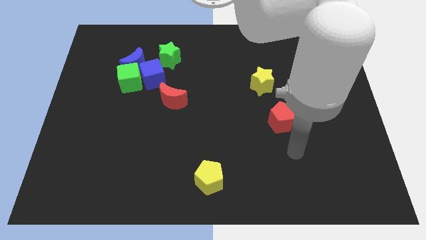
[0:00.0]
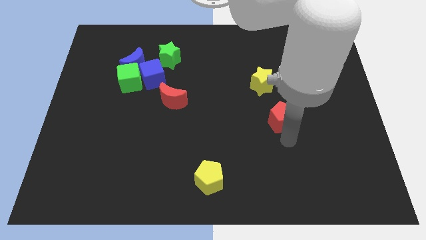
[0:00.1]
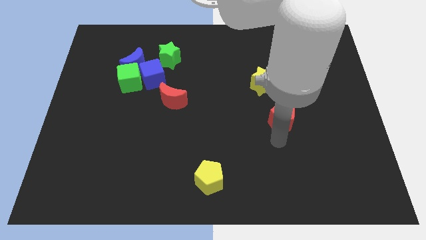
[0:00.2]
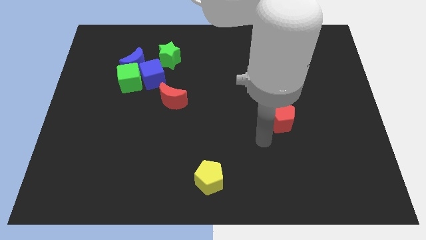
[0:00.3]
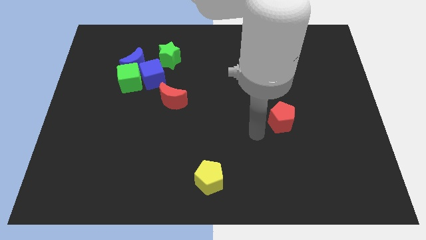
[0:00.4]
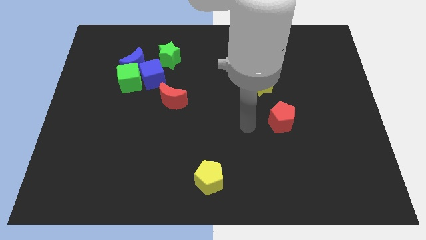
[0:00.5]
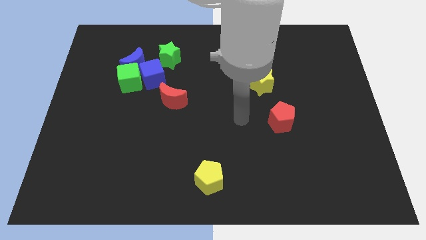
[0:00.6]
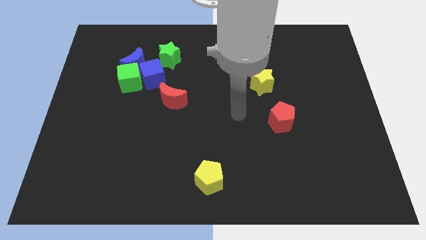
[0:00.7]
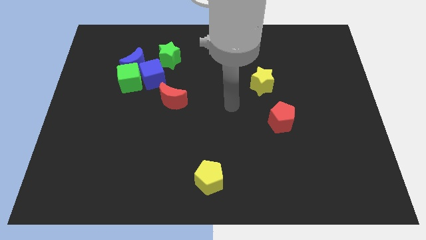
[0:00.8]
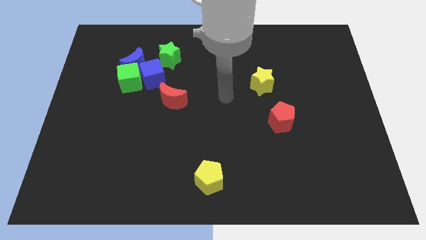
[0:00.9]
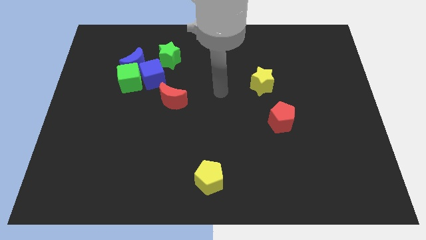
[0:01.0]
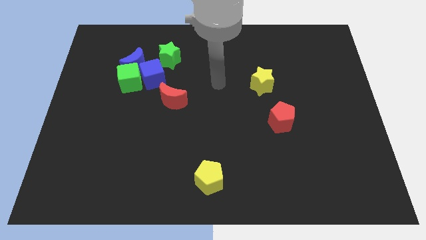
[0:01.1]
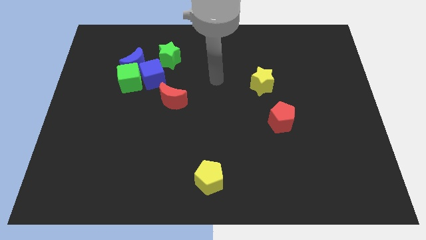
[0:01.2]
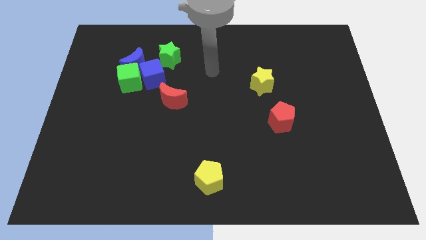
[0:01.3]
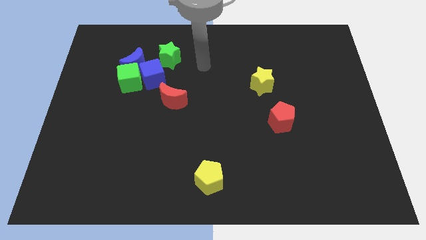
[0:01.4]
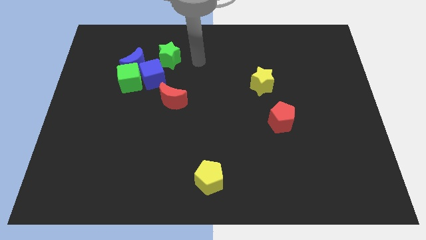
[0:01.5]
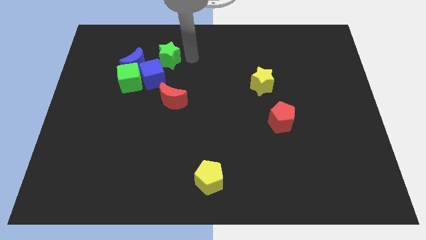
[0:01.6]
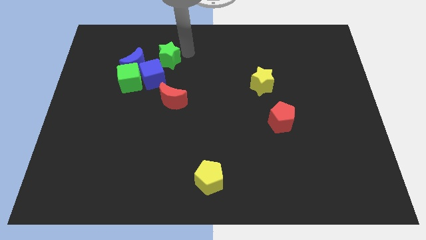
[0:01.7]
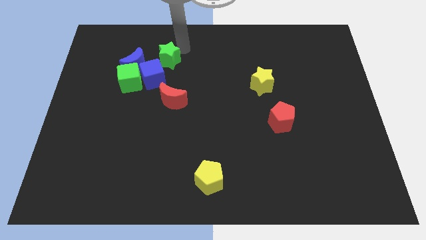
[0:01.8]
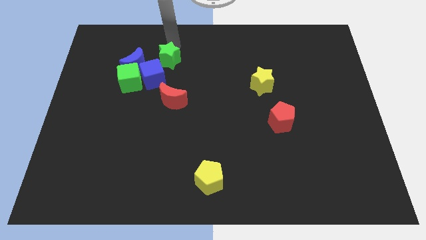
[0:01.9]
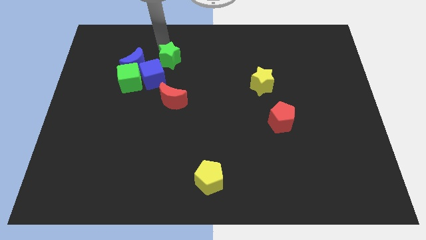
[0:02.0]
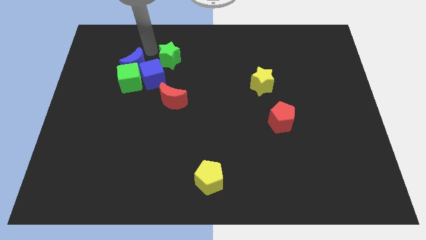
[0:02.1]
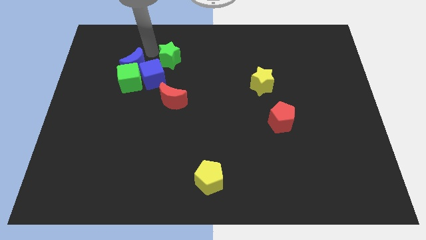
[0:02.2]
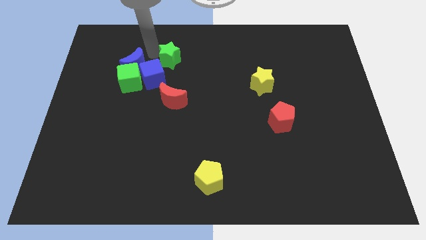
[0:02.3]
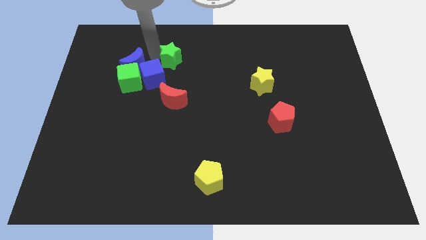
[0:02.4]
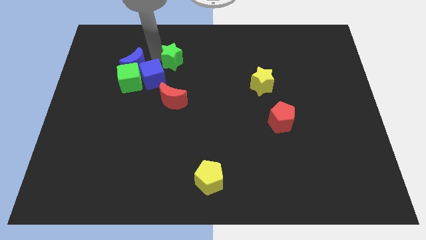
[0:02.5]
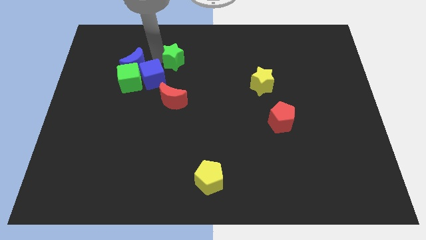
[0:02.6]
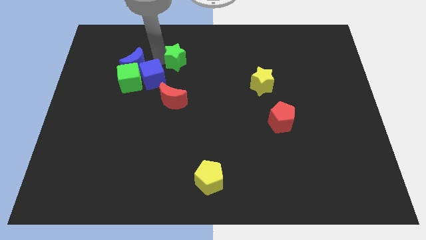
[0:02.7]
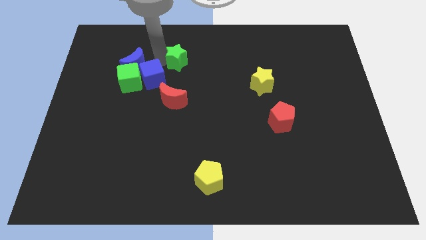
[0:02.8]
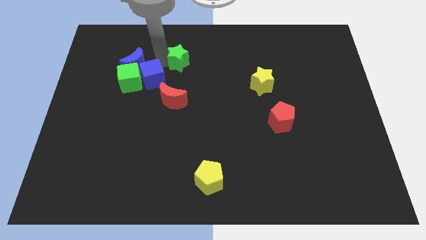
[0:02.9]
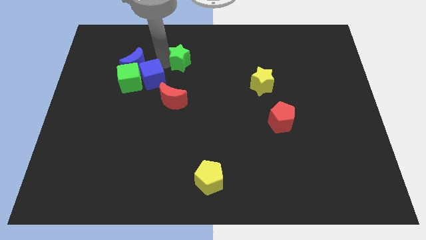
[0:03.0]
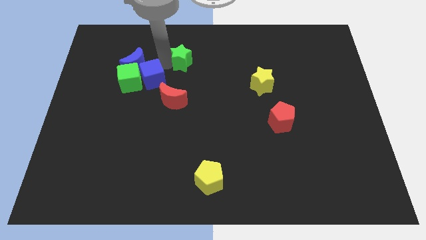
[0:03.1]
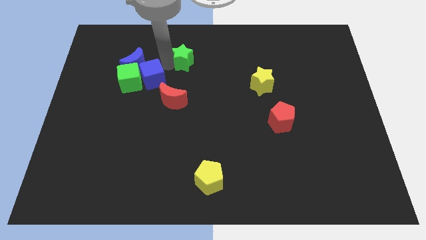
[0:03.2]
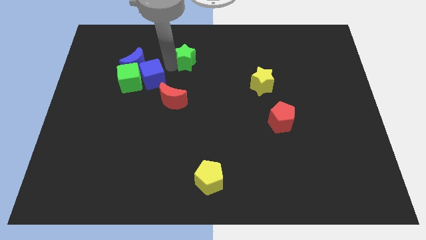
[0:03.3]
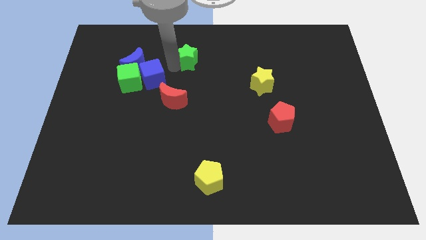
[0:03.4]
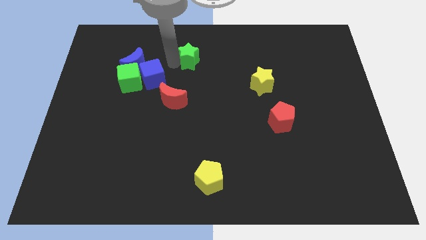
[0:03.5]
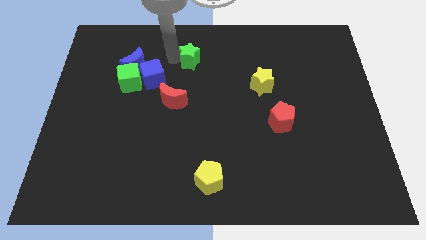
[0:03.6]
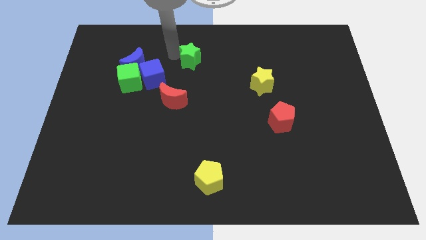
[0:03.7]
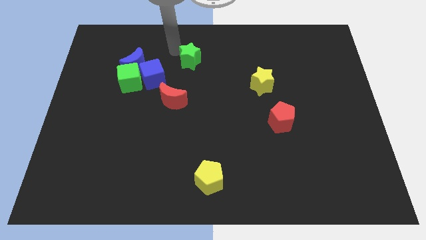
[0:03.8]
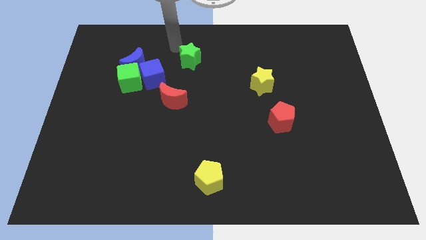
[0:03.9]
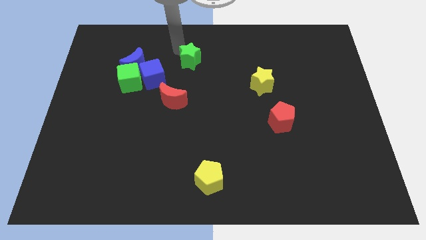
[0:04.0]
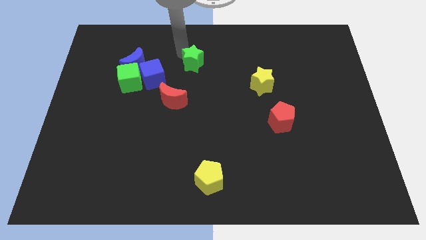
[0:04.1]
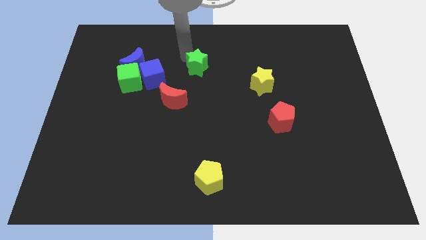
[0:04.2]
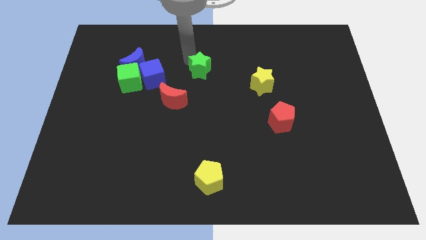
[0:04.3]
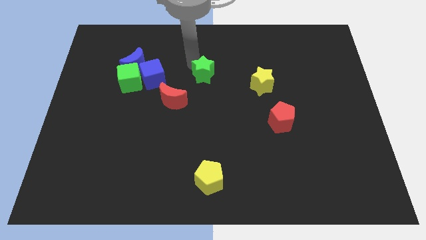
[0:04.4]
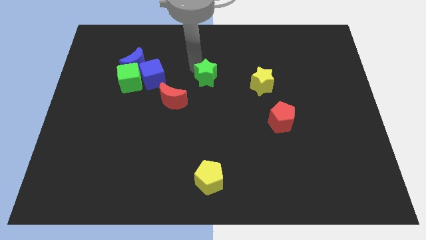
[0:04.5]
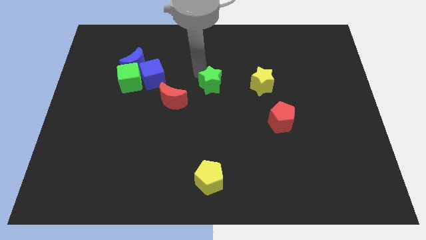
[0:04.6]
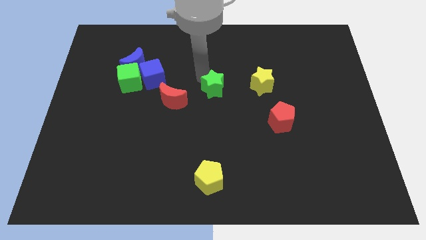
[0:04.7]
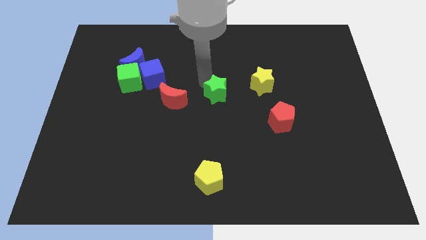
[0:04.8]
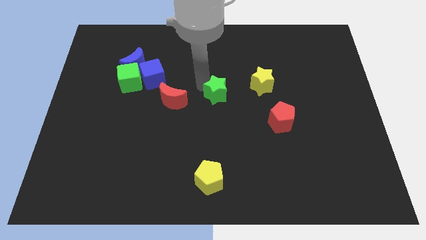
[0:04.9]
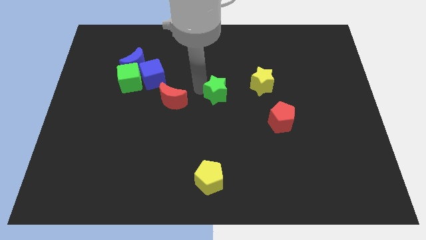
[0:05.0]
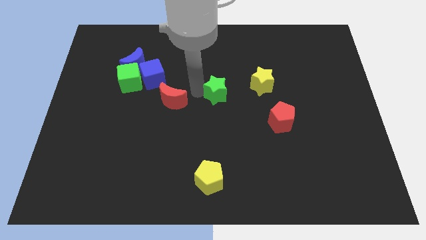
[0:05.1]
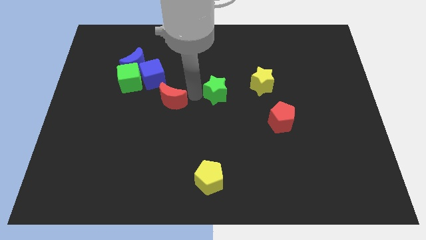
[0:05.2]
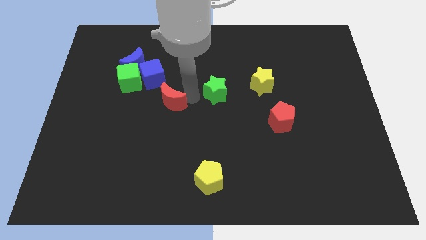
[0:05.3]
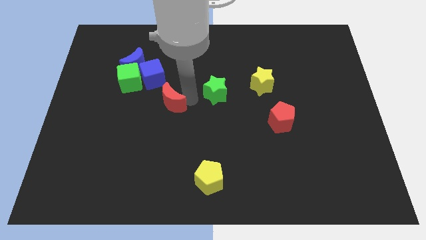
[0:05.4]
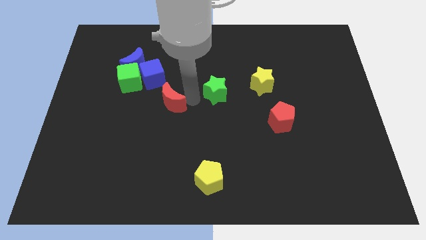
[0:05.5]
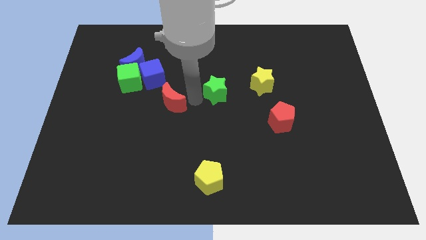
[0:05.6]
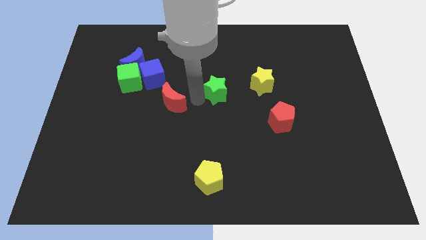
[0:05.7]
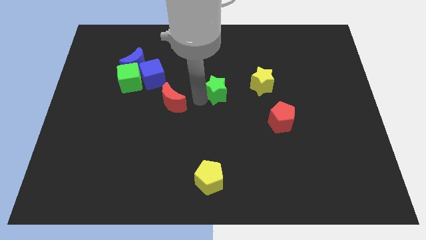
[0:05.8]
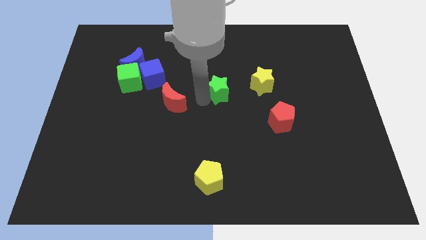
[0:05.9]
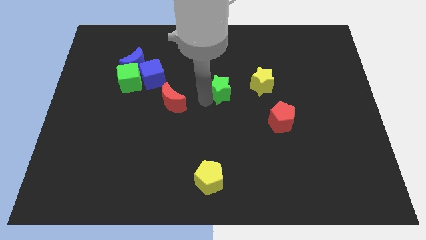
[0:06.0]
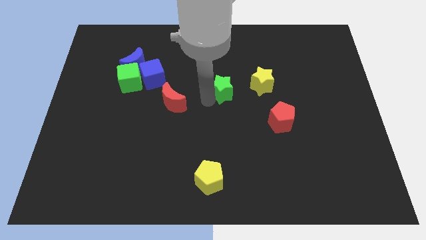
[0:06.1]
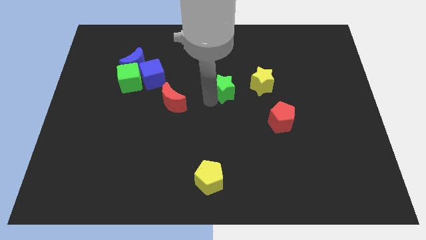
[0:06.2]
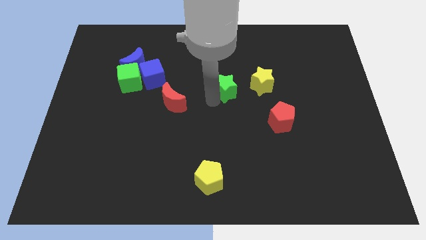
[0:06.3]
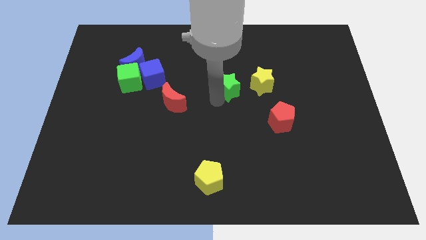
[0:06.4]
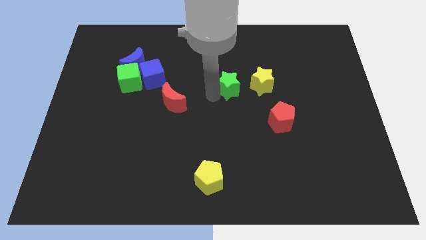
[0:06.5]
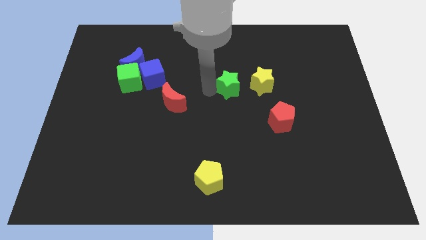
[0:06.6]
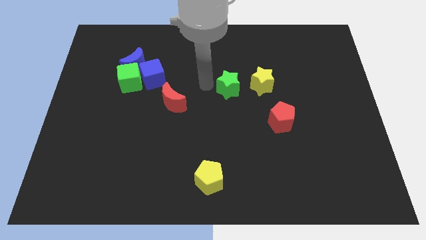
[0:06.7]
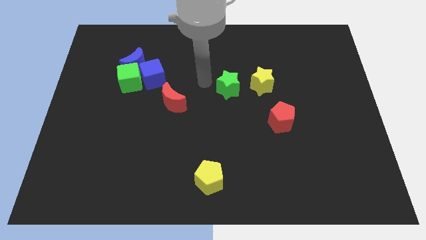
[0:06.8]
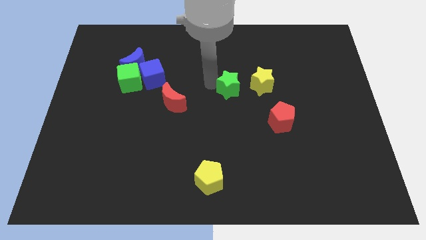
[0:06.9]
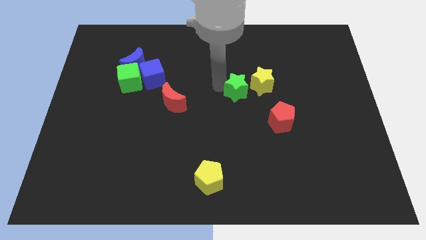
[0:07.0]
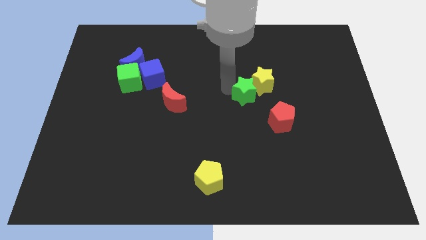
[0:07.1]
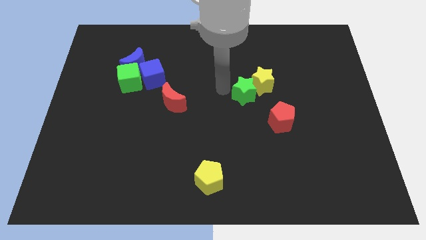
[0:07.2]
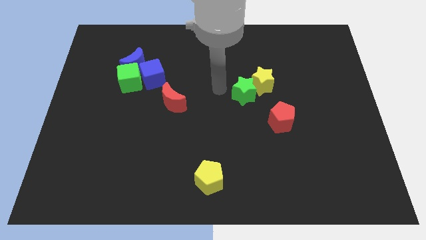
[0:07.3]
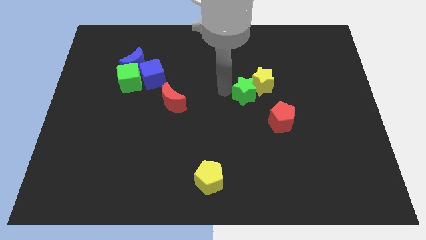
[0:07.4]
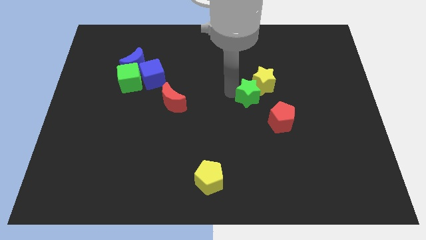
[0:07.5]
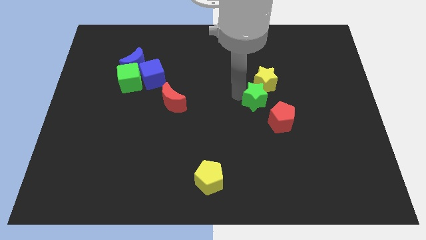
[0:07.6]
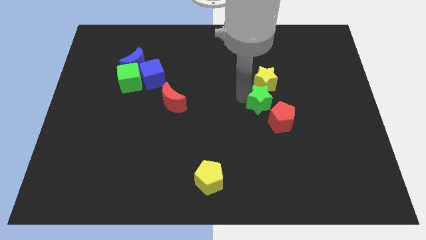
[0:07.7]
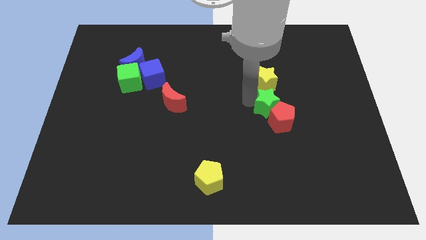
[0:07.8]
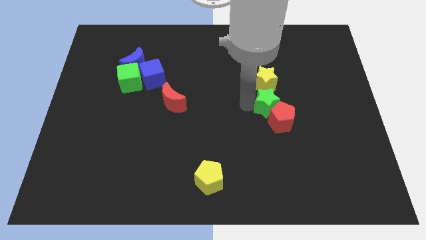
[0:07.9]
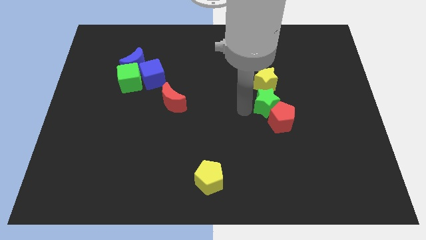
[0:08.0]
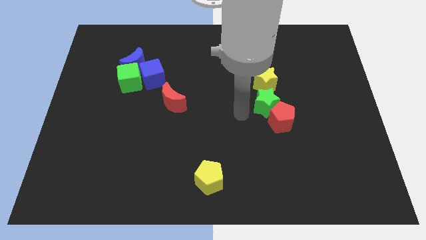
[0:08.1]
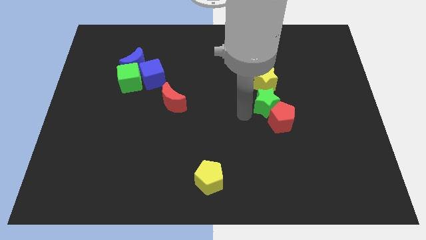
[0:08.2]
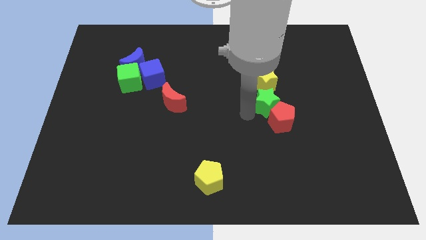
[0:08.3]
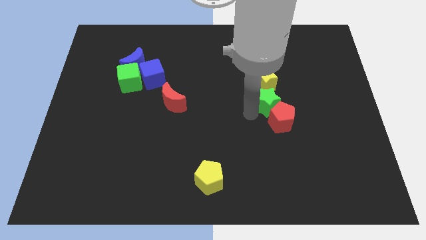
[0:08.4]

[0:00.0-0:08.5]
put the green star to the bottom right of the yellow star
